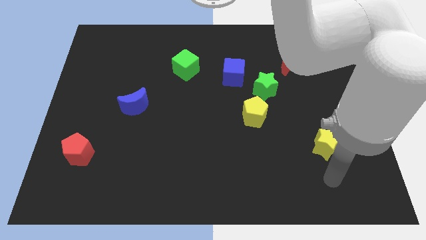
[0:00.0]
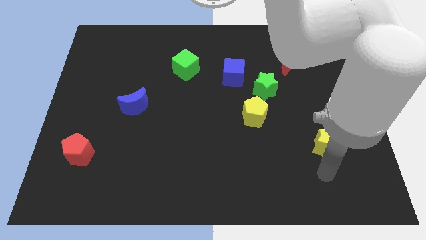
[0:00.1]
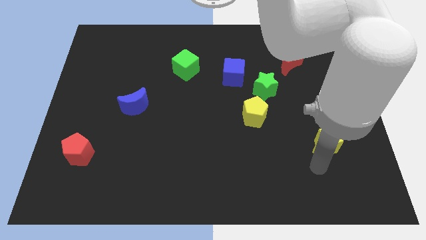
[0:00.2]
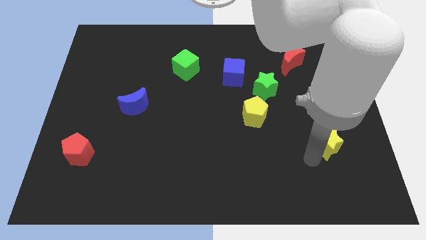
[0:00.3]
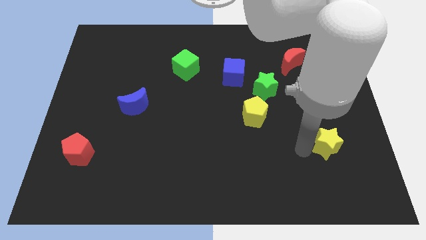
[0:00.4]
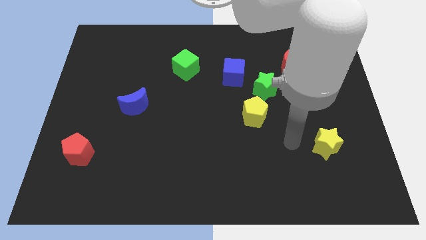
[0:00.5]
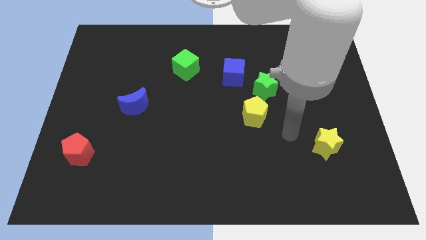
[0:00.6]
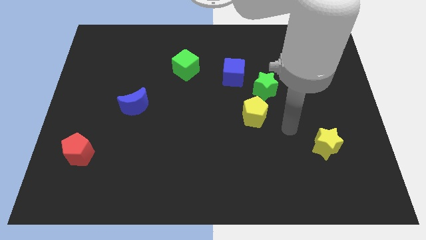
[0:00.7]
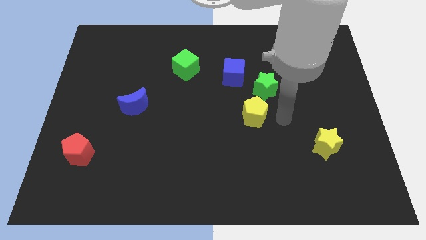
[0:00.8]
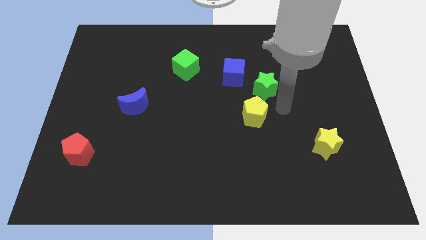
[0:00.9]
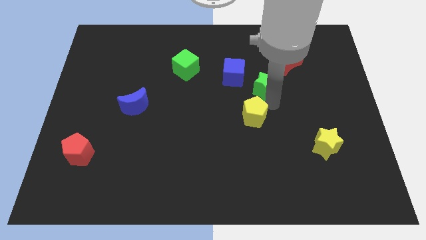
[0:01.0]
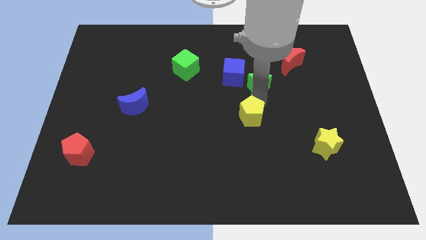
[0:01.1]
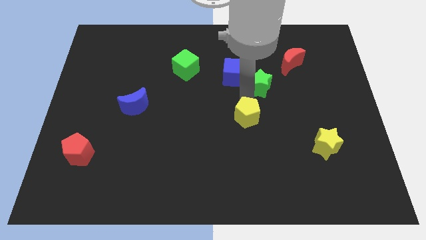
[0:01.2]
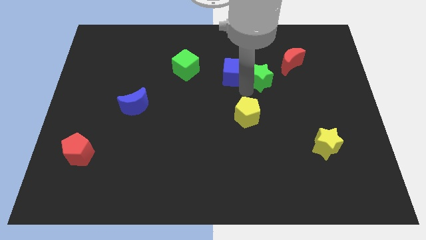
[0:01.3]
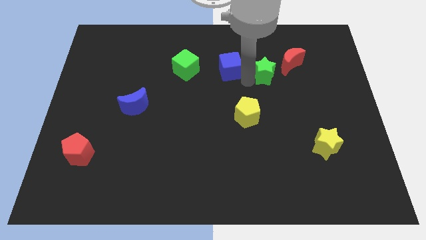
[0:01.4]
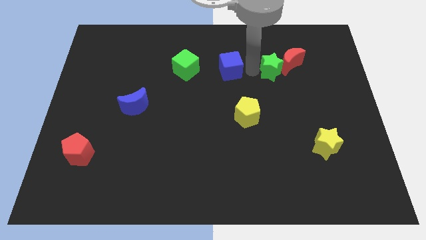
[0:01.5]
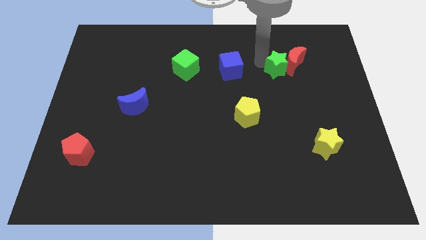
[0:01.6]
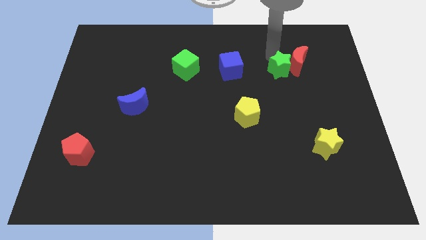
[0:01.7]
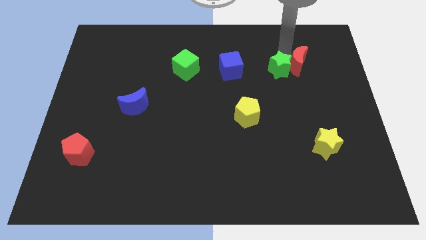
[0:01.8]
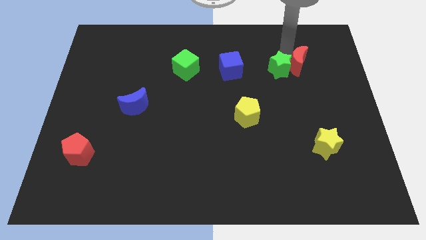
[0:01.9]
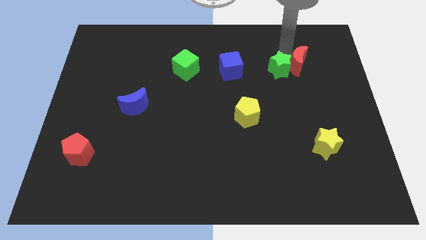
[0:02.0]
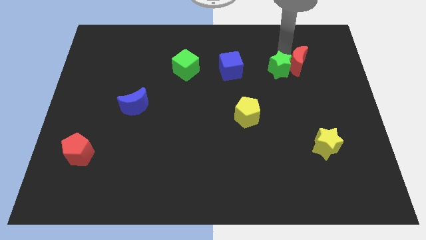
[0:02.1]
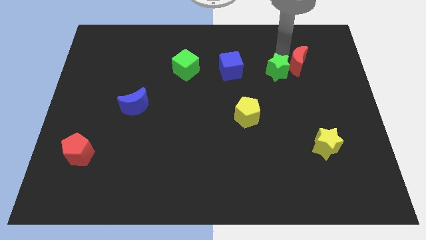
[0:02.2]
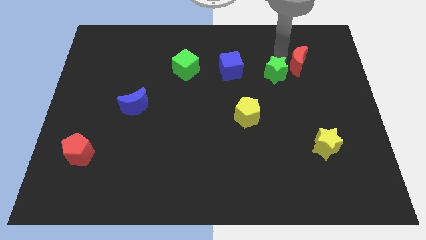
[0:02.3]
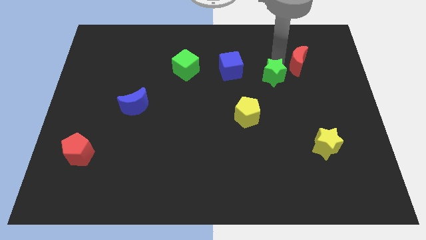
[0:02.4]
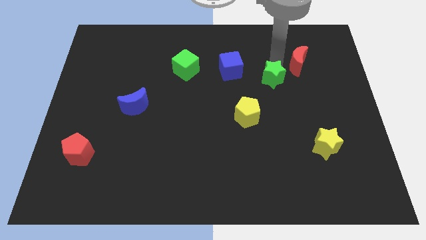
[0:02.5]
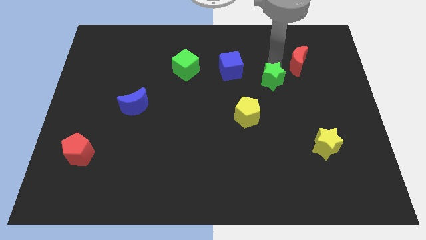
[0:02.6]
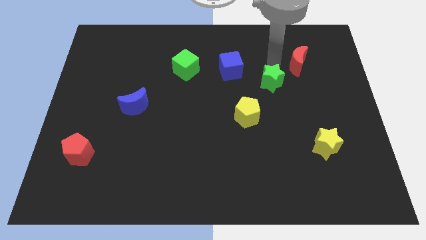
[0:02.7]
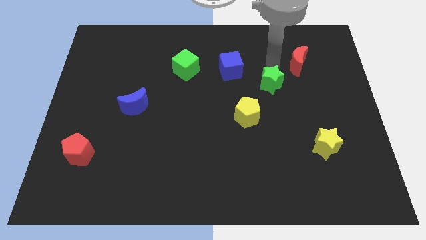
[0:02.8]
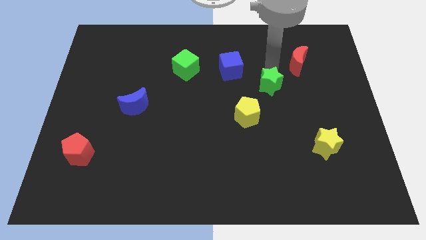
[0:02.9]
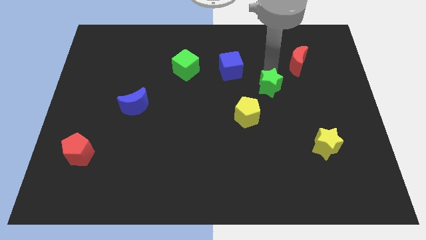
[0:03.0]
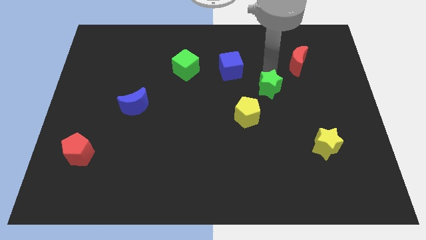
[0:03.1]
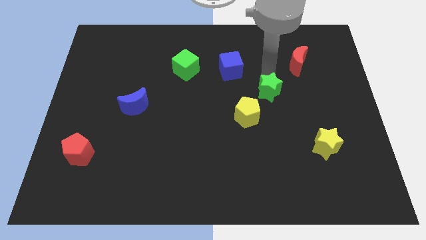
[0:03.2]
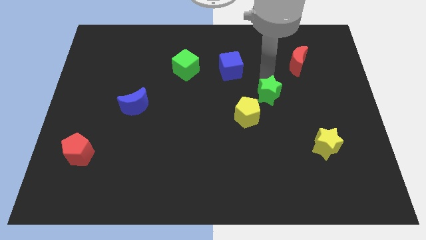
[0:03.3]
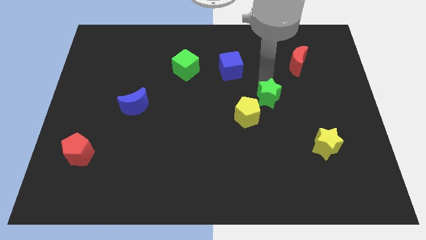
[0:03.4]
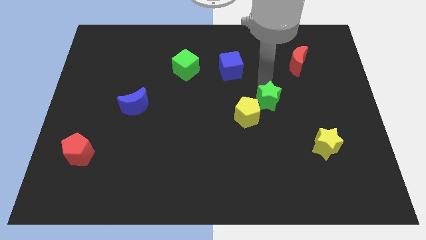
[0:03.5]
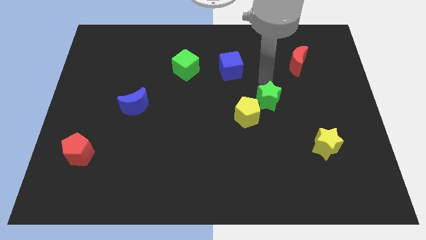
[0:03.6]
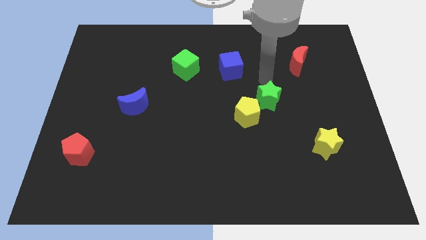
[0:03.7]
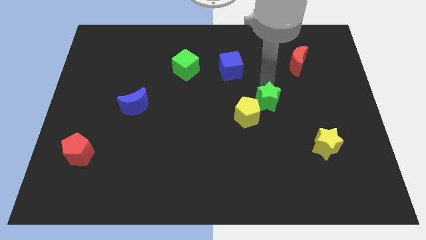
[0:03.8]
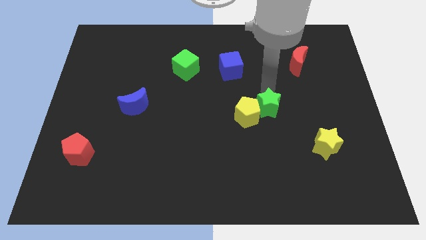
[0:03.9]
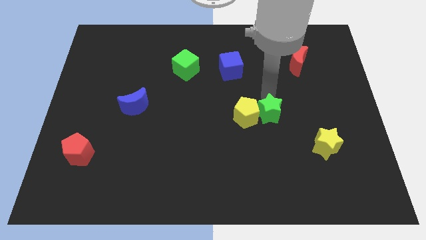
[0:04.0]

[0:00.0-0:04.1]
slide the green star downwards a little bit

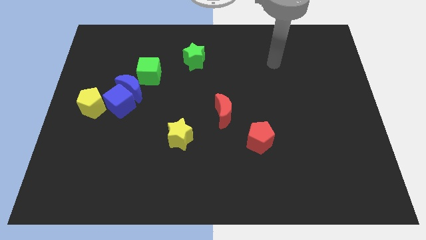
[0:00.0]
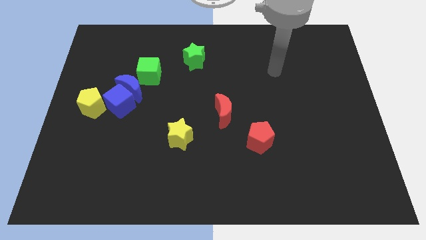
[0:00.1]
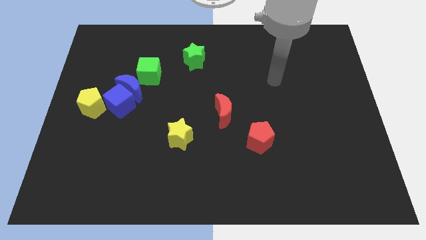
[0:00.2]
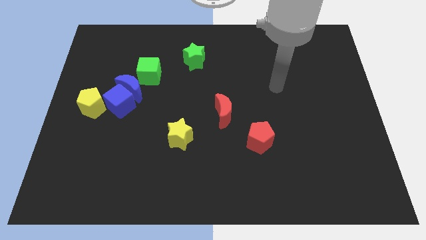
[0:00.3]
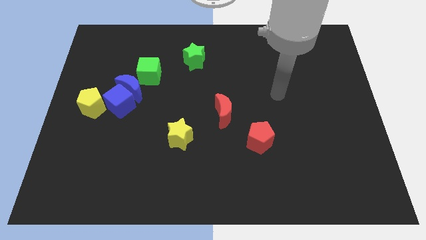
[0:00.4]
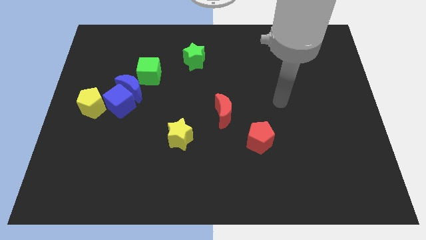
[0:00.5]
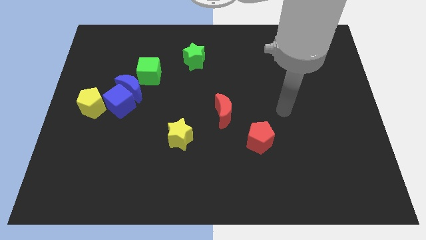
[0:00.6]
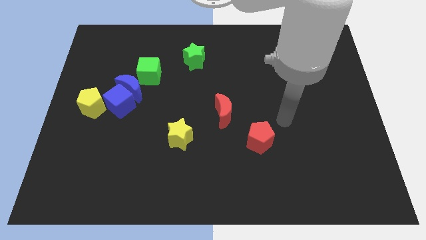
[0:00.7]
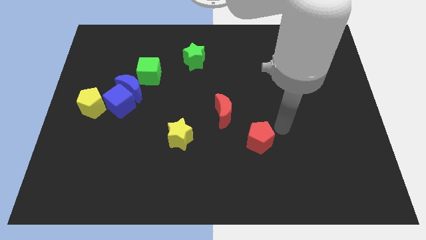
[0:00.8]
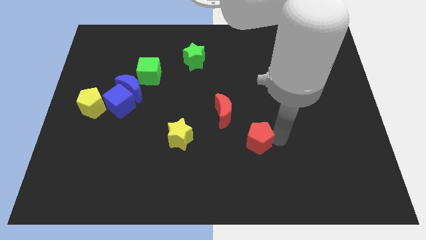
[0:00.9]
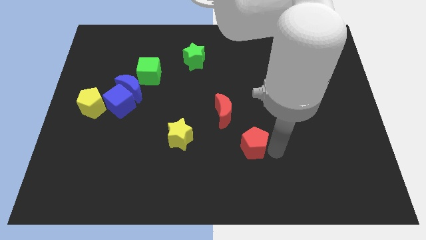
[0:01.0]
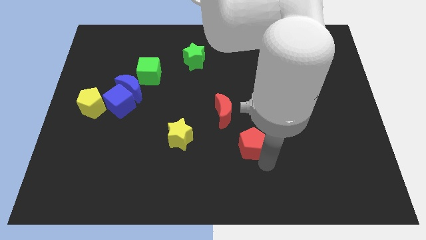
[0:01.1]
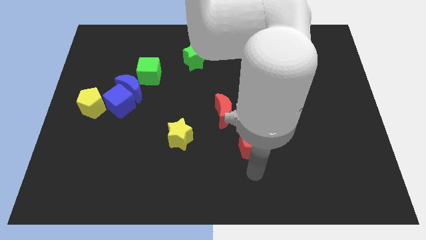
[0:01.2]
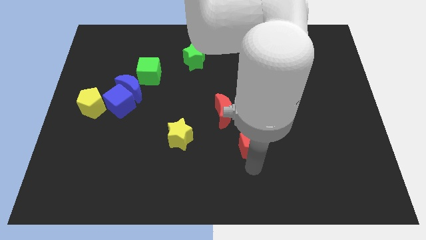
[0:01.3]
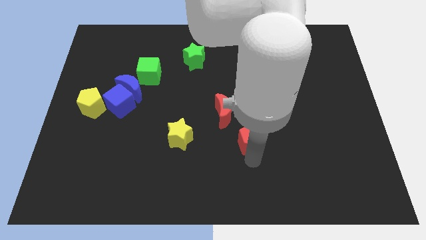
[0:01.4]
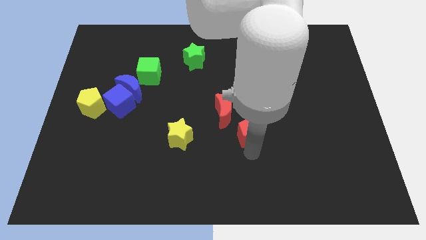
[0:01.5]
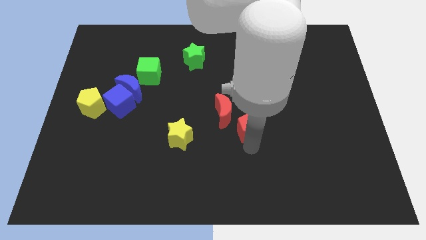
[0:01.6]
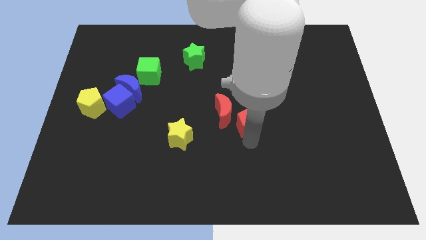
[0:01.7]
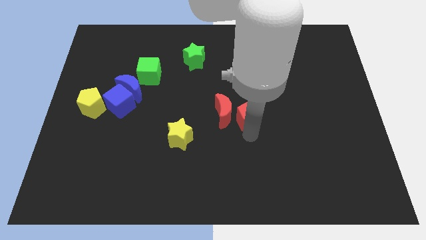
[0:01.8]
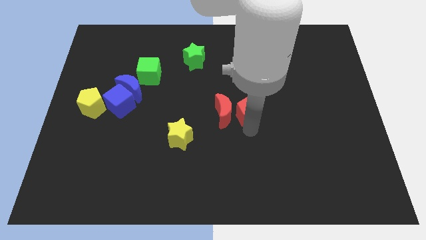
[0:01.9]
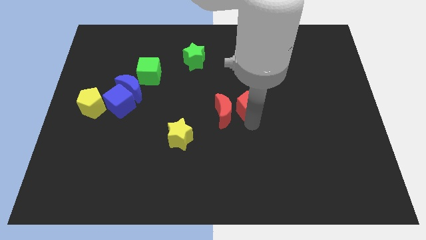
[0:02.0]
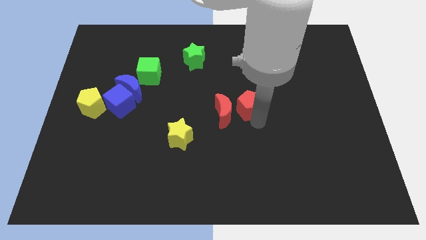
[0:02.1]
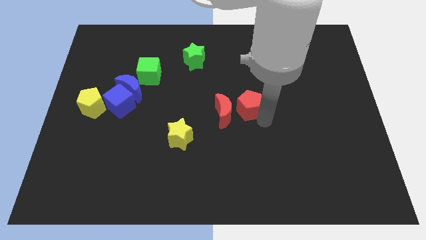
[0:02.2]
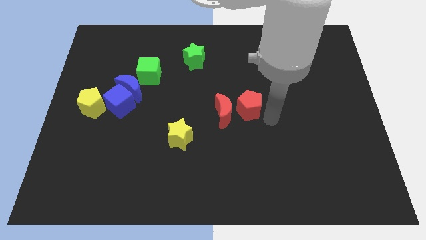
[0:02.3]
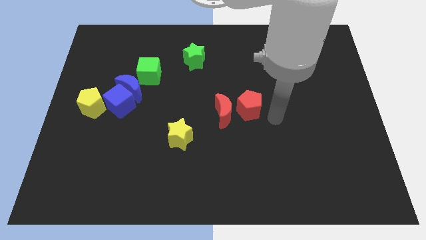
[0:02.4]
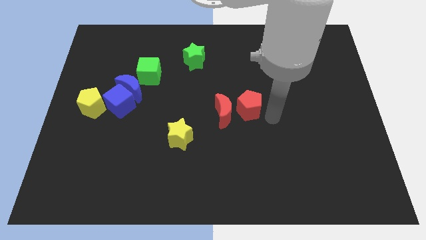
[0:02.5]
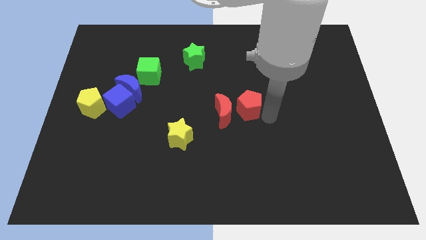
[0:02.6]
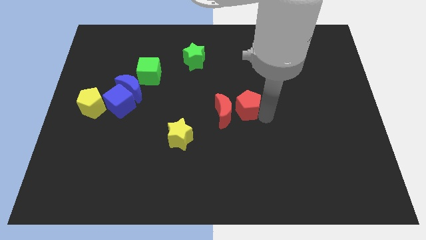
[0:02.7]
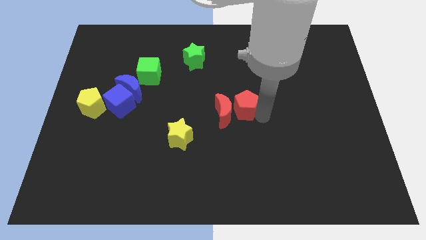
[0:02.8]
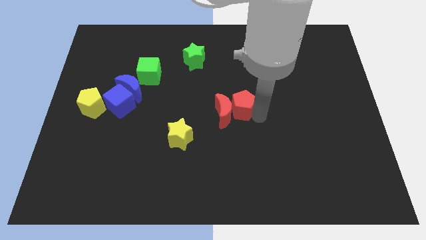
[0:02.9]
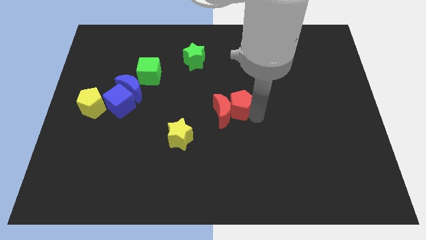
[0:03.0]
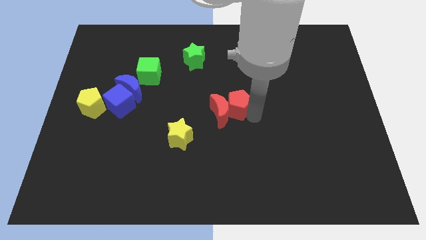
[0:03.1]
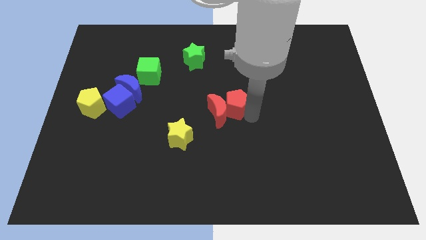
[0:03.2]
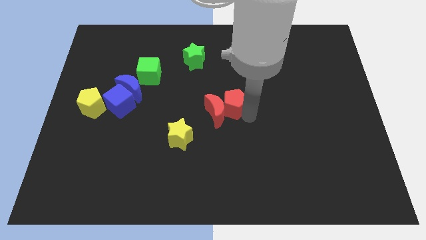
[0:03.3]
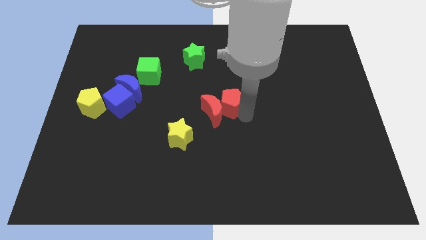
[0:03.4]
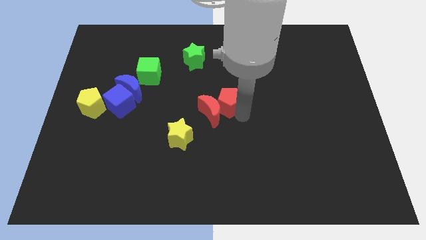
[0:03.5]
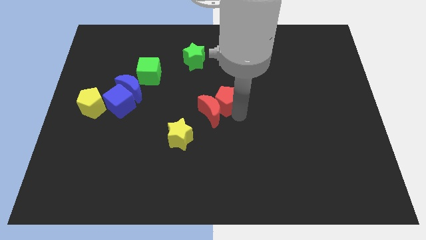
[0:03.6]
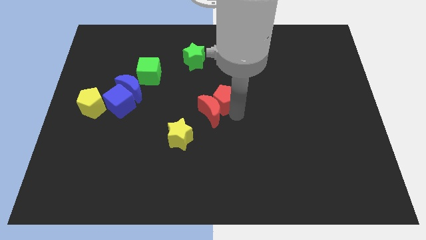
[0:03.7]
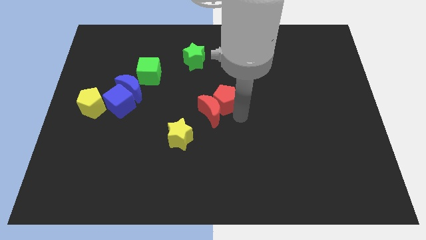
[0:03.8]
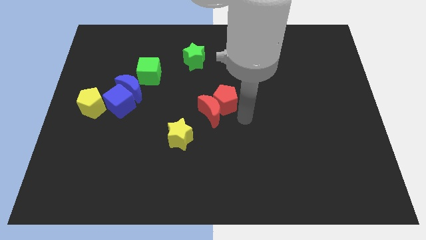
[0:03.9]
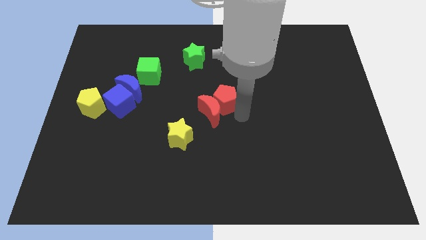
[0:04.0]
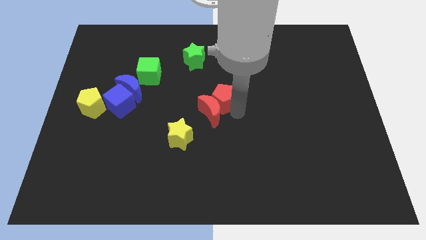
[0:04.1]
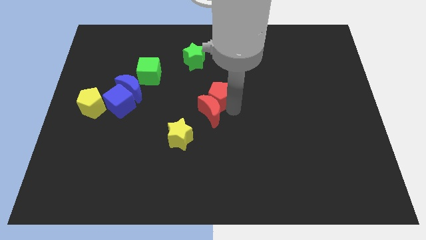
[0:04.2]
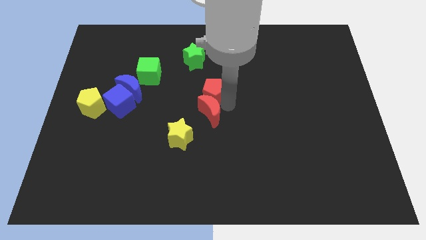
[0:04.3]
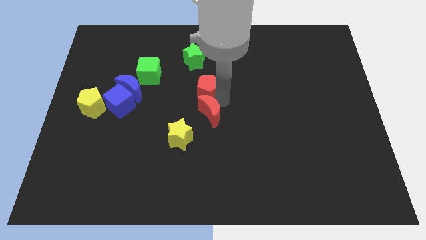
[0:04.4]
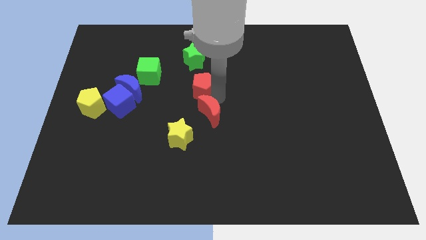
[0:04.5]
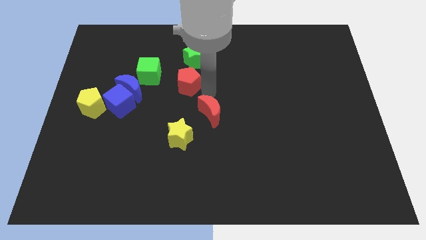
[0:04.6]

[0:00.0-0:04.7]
move the red pentagon up and then left
